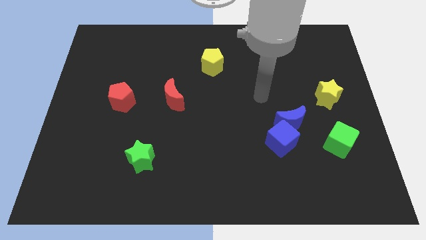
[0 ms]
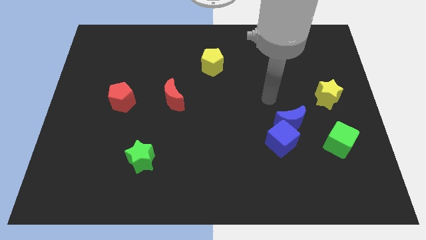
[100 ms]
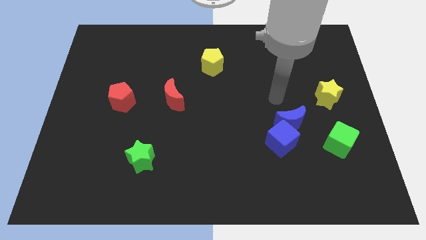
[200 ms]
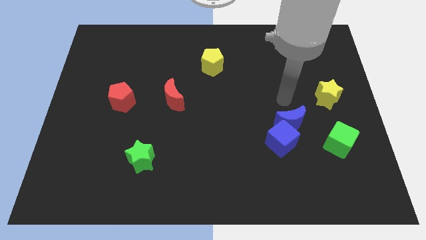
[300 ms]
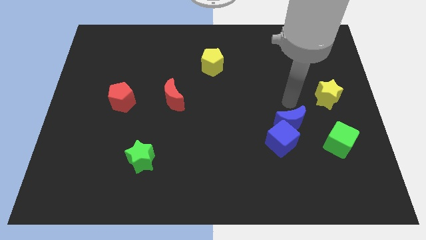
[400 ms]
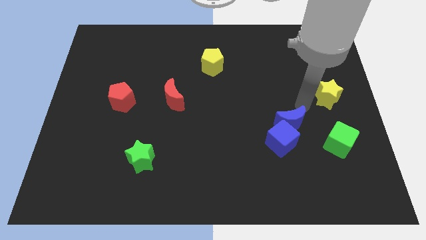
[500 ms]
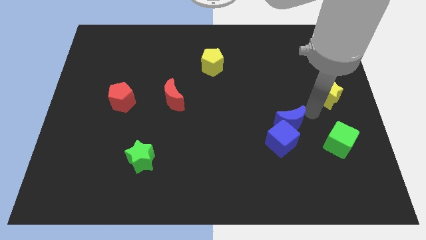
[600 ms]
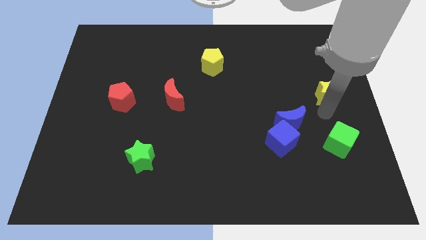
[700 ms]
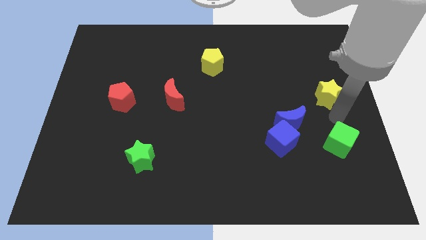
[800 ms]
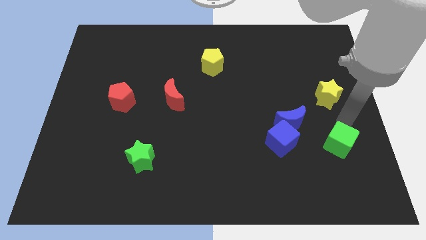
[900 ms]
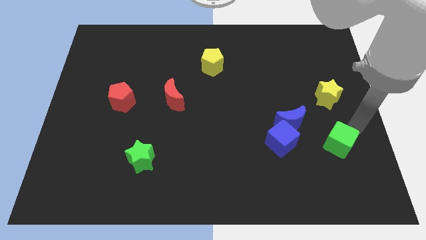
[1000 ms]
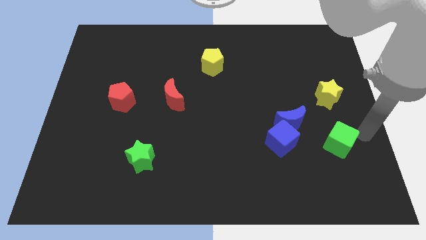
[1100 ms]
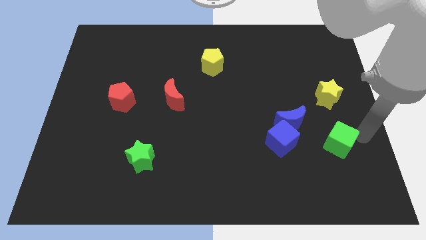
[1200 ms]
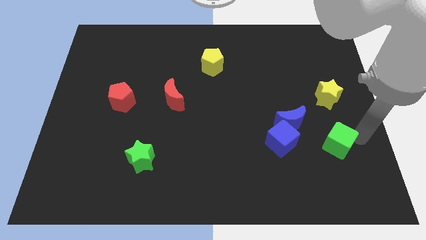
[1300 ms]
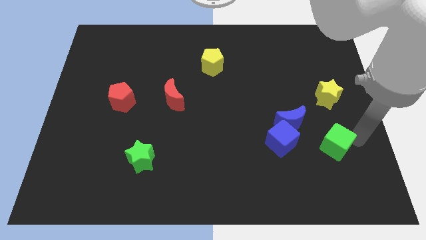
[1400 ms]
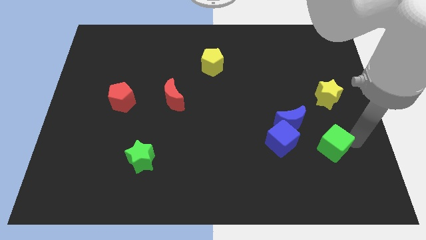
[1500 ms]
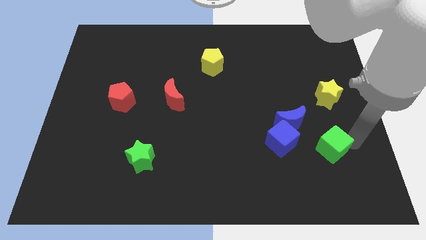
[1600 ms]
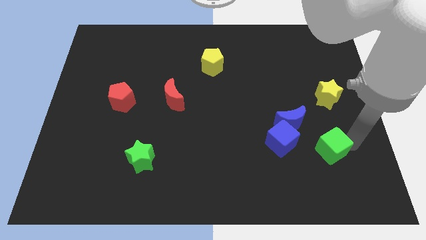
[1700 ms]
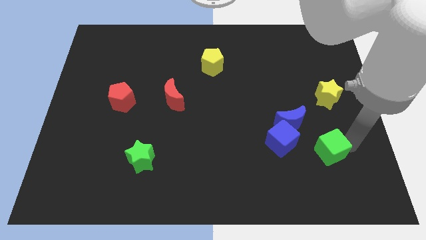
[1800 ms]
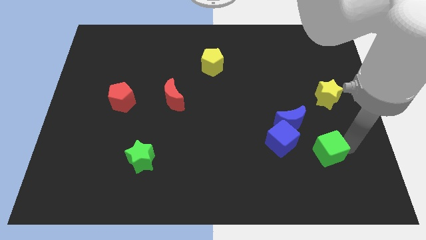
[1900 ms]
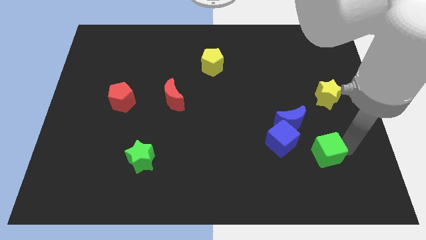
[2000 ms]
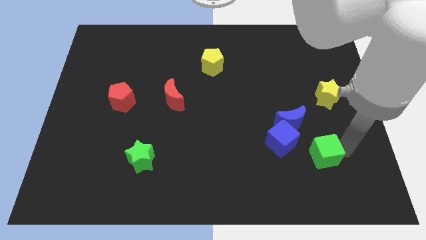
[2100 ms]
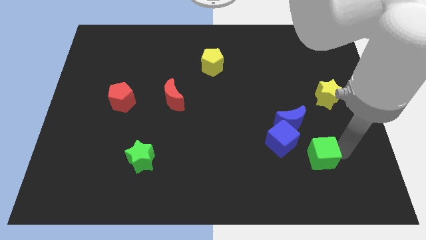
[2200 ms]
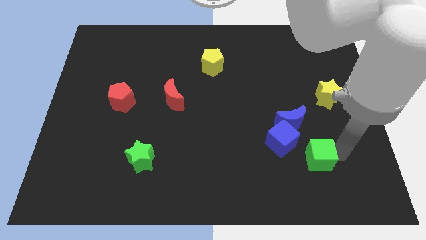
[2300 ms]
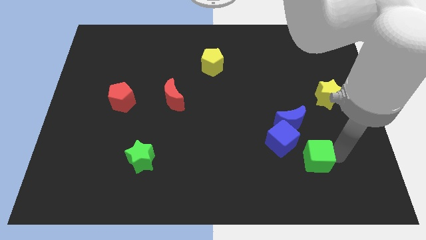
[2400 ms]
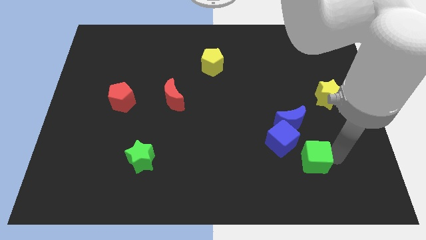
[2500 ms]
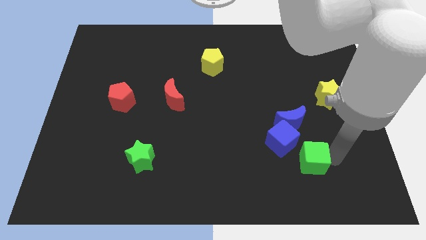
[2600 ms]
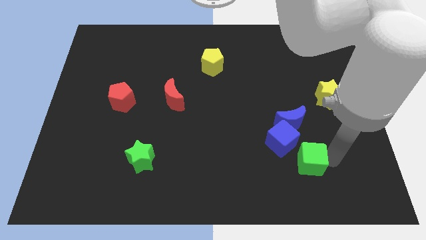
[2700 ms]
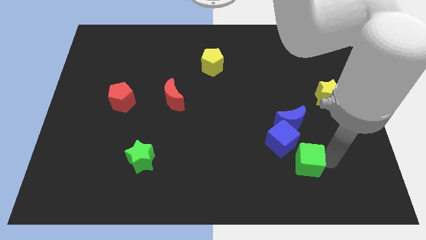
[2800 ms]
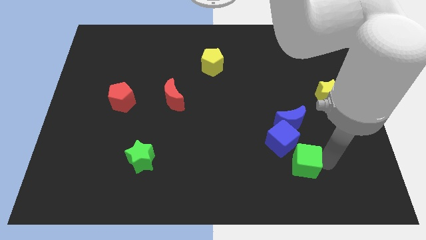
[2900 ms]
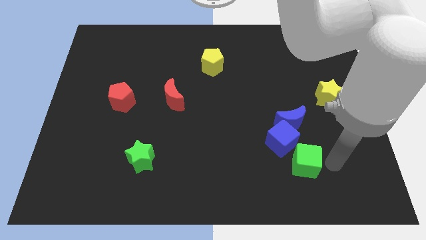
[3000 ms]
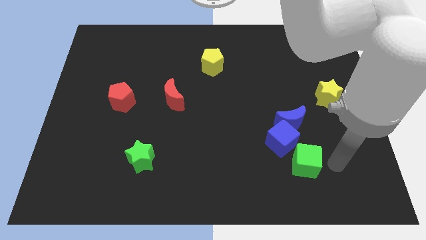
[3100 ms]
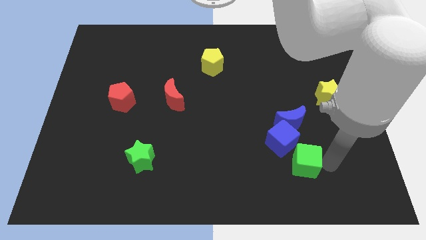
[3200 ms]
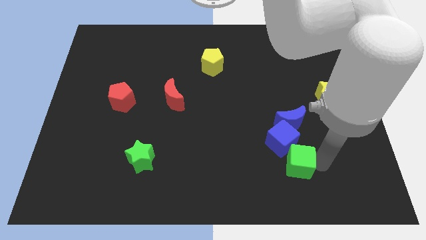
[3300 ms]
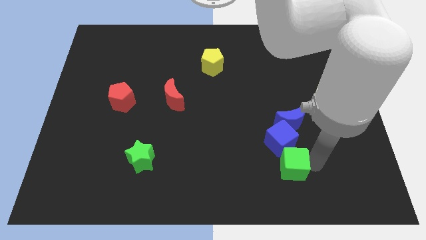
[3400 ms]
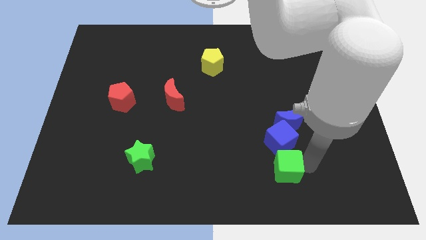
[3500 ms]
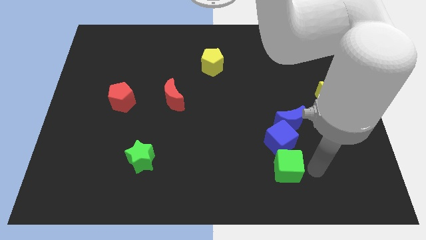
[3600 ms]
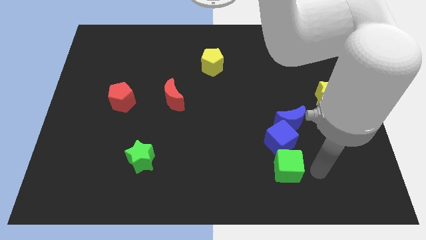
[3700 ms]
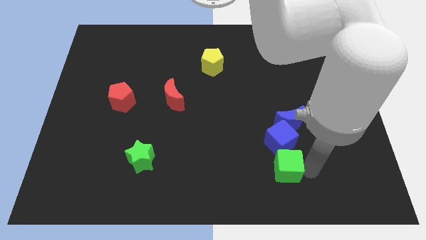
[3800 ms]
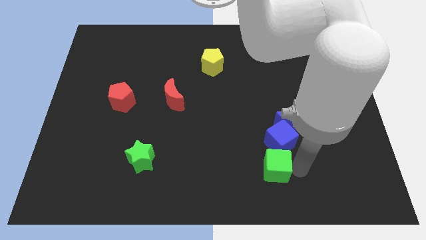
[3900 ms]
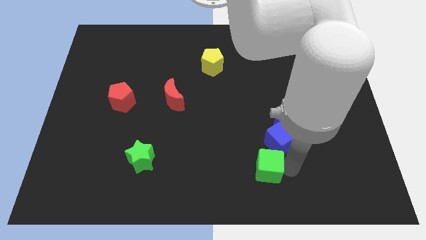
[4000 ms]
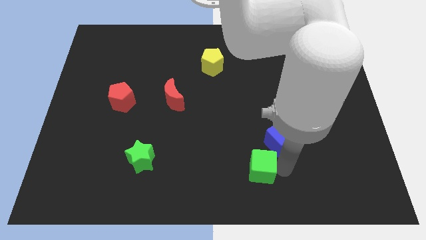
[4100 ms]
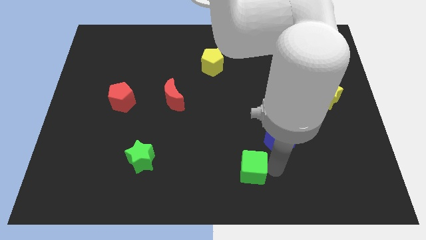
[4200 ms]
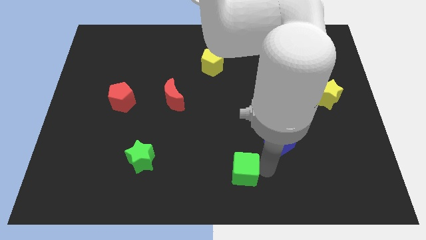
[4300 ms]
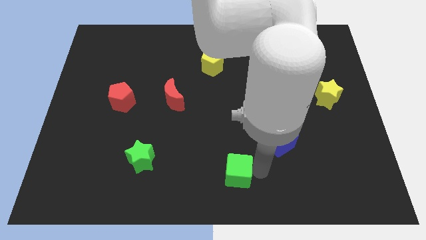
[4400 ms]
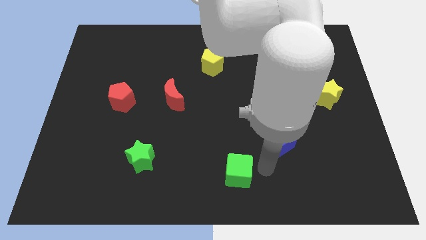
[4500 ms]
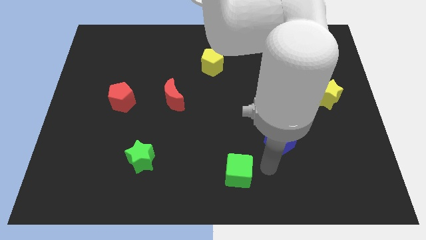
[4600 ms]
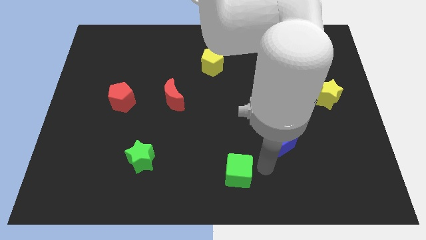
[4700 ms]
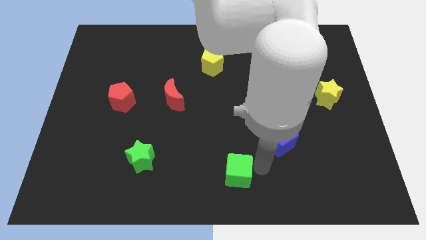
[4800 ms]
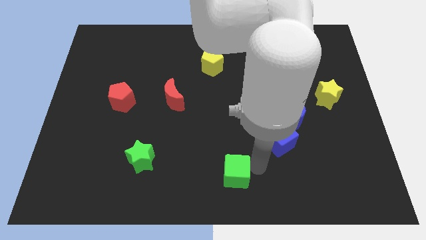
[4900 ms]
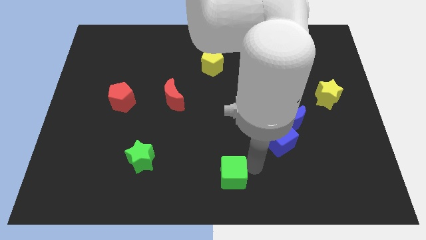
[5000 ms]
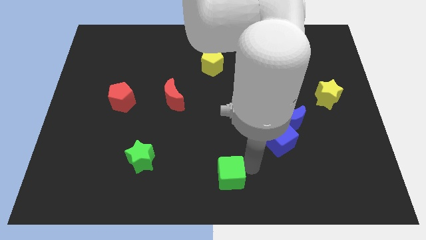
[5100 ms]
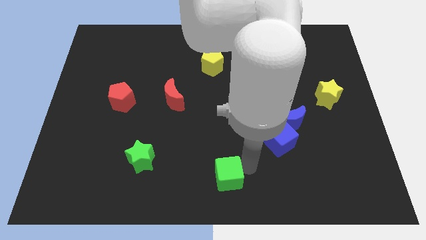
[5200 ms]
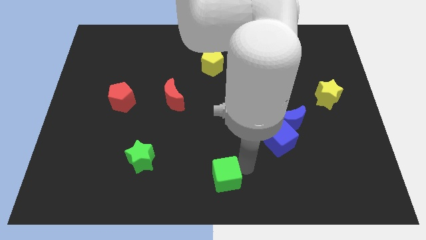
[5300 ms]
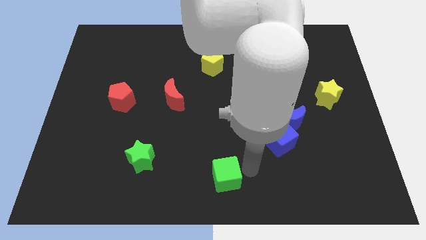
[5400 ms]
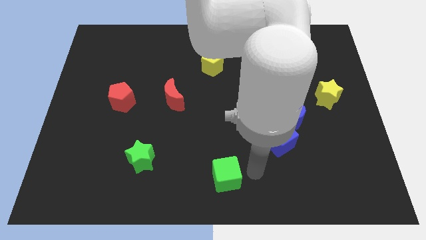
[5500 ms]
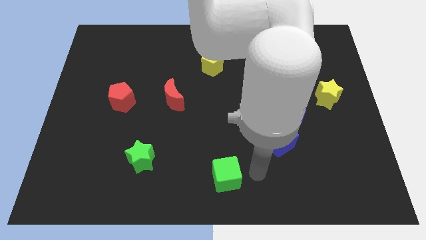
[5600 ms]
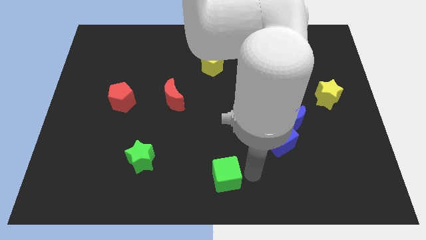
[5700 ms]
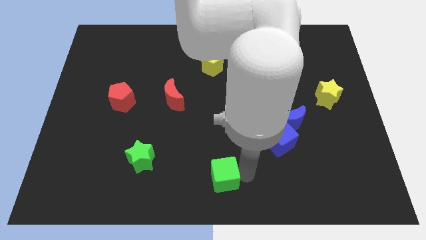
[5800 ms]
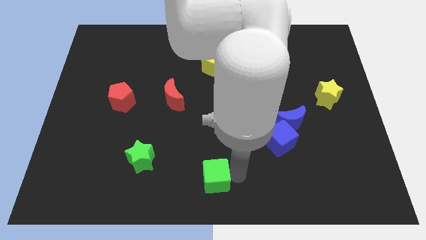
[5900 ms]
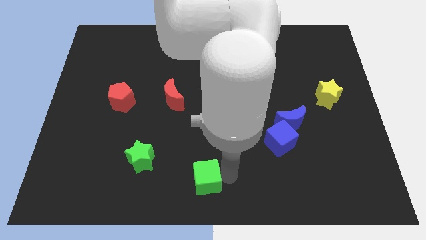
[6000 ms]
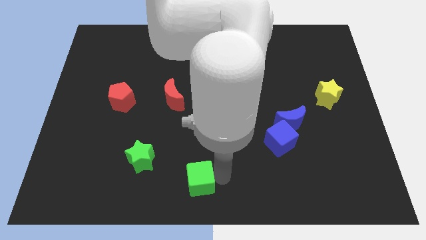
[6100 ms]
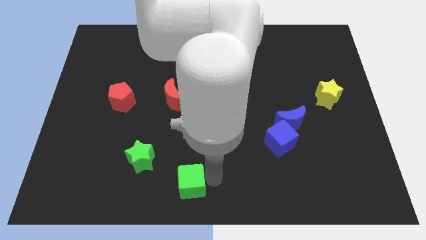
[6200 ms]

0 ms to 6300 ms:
slide the green cube to the bottom right of the green star

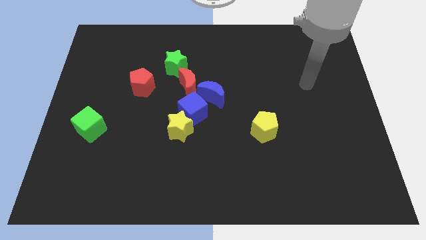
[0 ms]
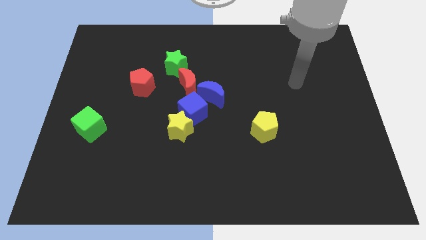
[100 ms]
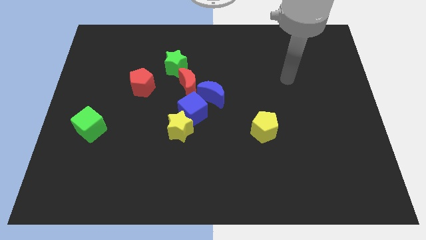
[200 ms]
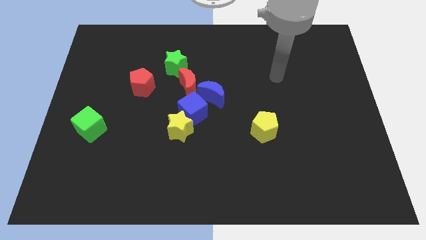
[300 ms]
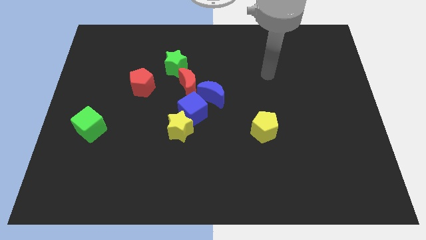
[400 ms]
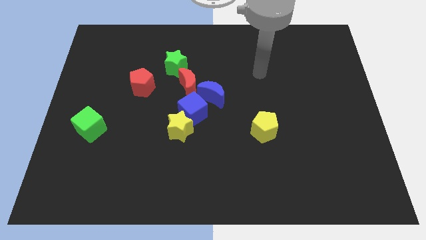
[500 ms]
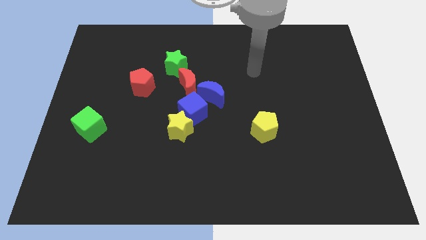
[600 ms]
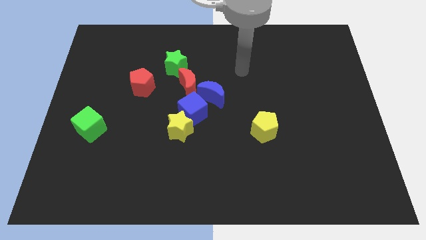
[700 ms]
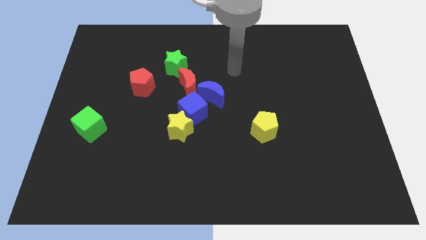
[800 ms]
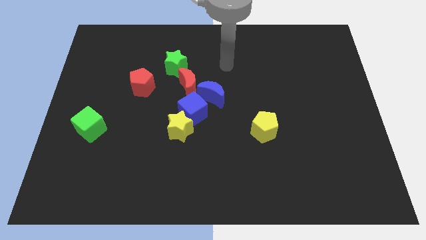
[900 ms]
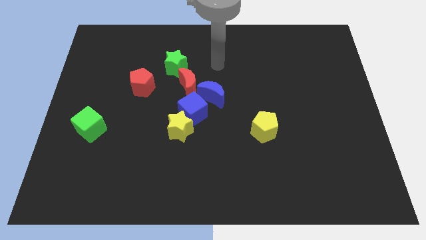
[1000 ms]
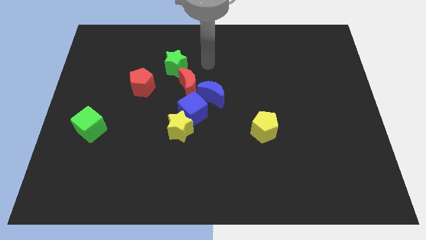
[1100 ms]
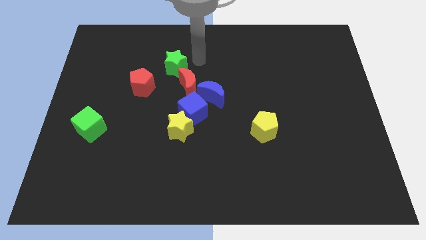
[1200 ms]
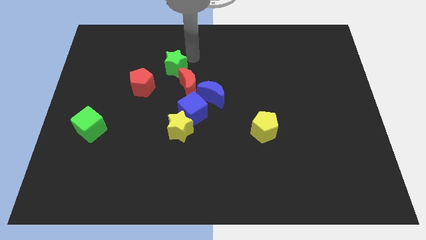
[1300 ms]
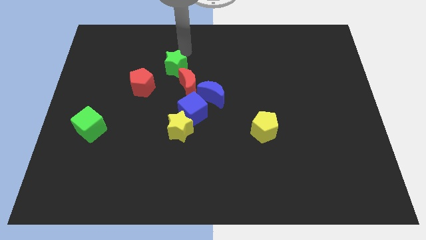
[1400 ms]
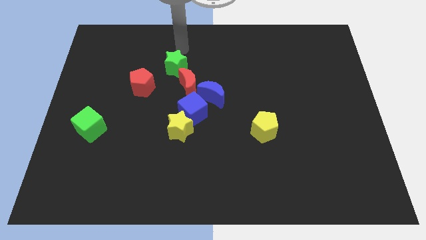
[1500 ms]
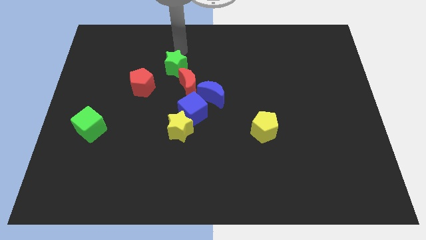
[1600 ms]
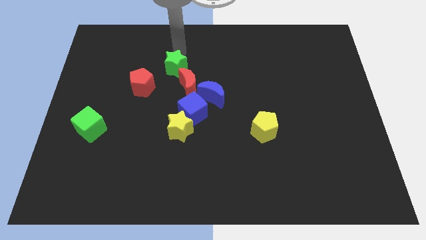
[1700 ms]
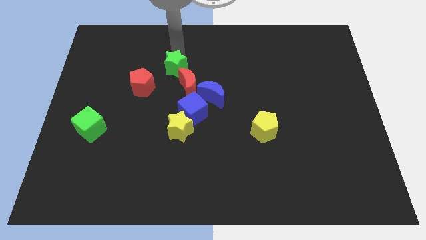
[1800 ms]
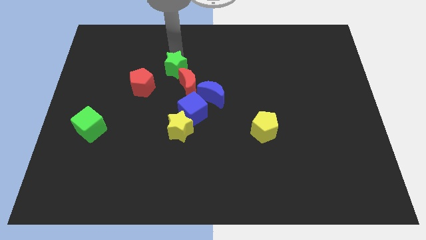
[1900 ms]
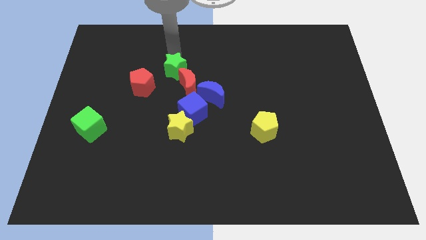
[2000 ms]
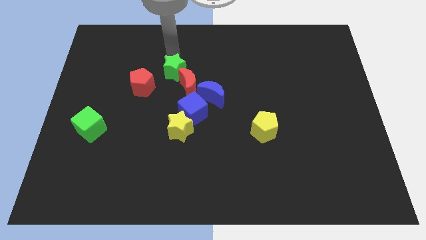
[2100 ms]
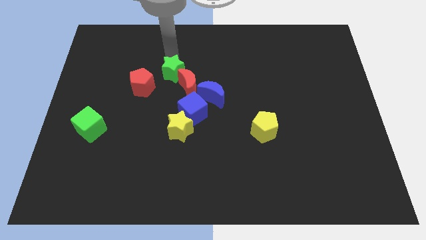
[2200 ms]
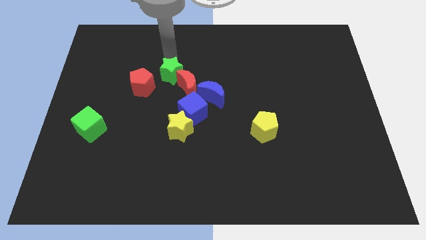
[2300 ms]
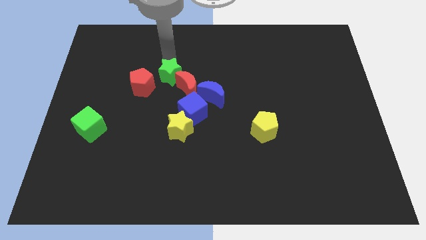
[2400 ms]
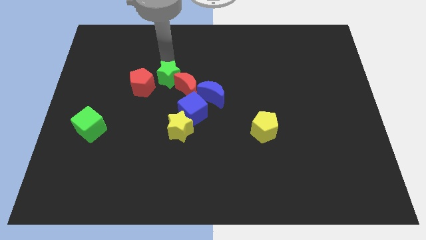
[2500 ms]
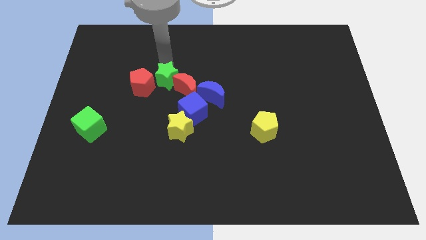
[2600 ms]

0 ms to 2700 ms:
push the green star to the top left of the blue cube
